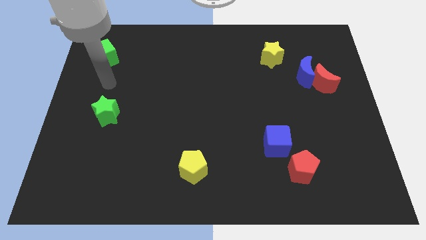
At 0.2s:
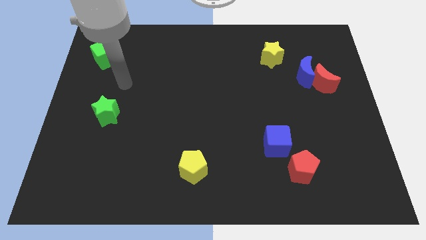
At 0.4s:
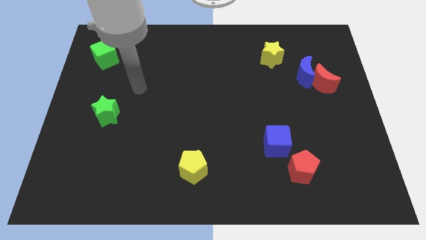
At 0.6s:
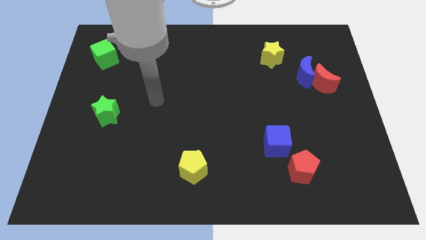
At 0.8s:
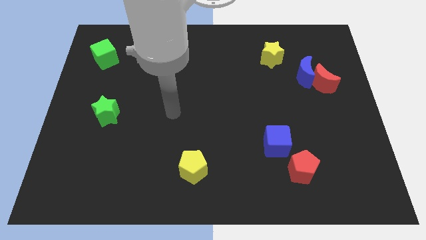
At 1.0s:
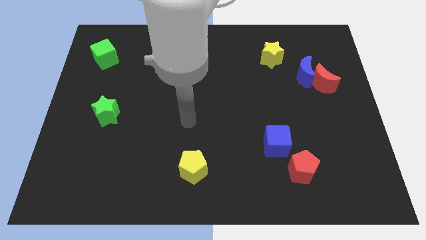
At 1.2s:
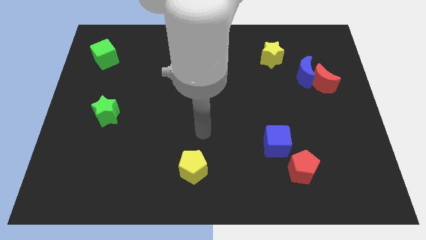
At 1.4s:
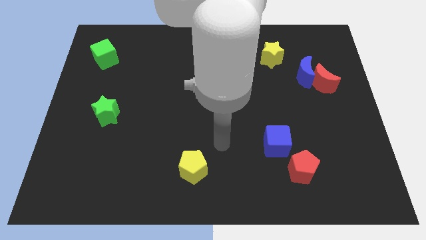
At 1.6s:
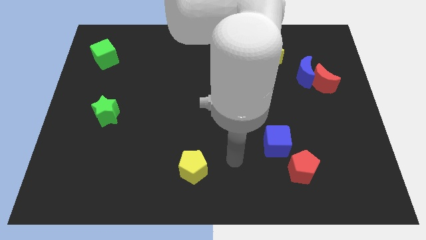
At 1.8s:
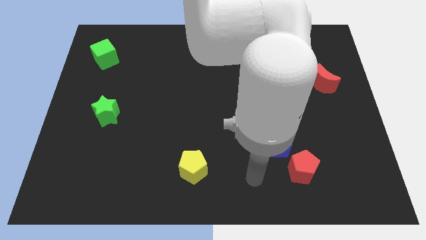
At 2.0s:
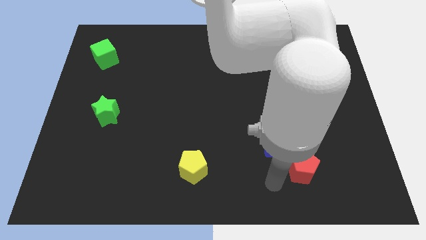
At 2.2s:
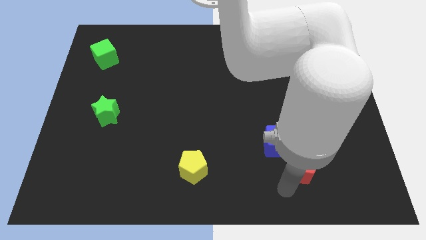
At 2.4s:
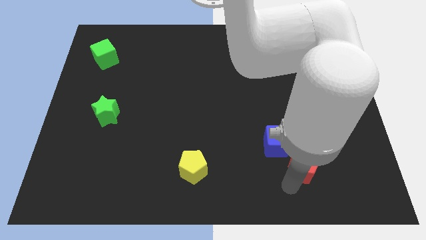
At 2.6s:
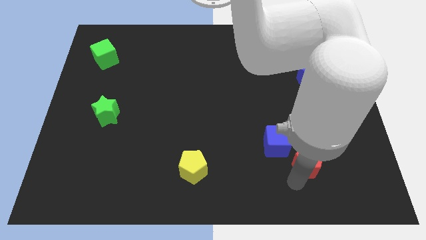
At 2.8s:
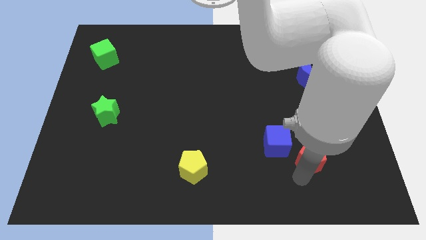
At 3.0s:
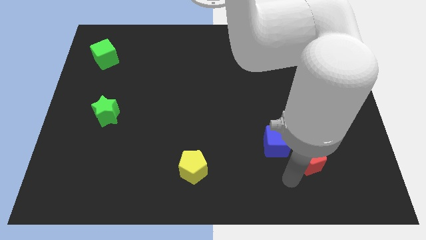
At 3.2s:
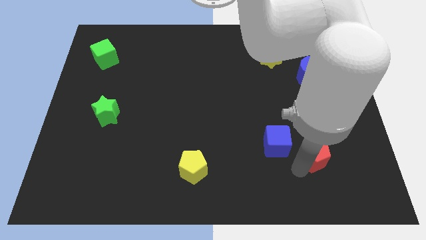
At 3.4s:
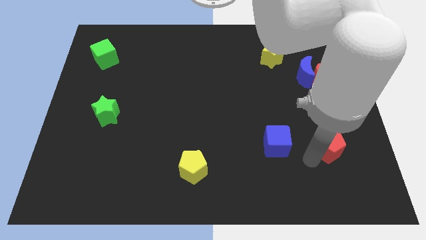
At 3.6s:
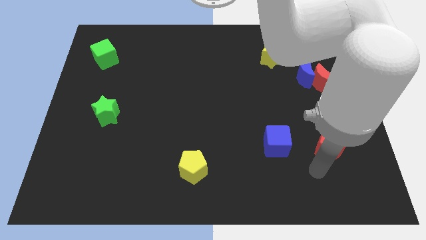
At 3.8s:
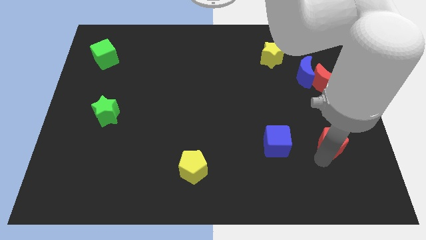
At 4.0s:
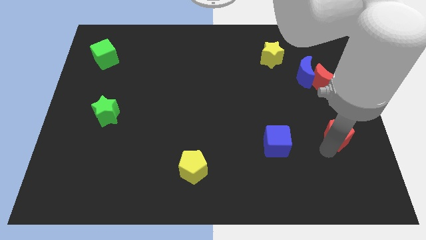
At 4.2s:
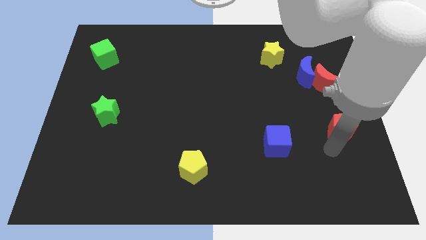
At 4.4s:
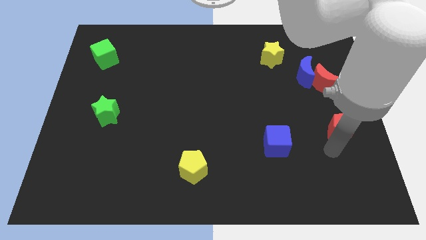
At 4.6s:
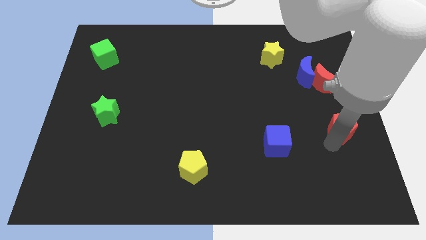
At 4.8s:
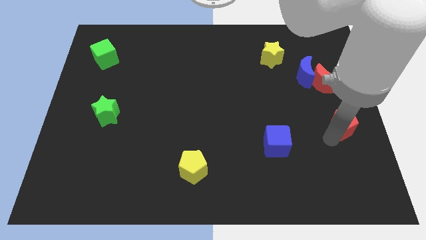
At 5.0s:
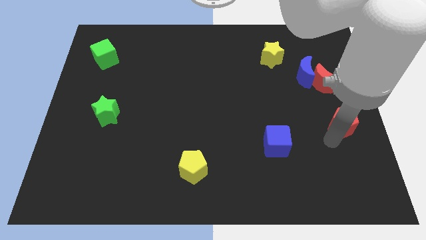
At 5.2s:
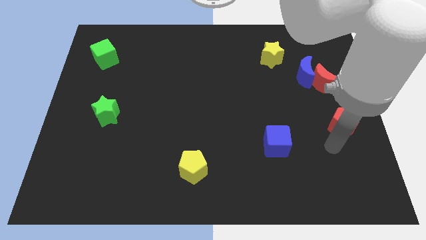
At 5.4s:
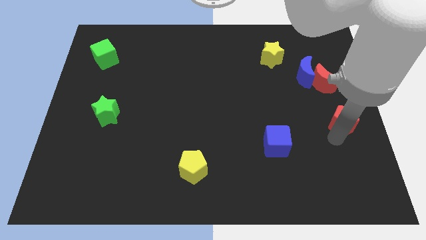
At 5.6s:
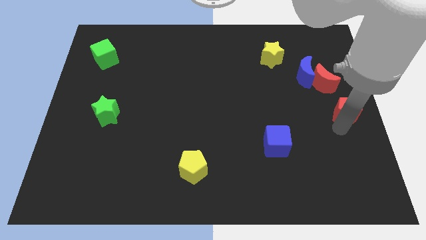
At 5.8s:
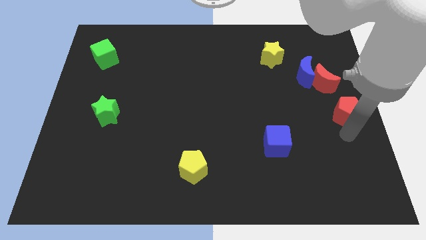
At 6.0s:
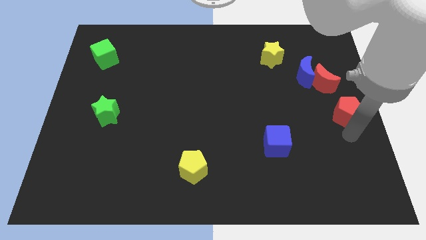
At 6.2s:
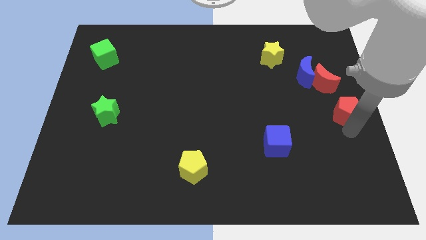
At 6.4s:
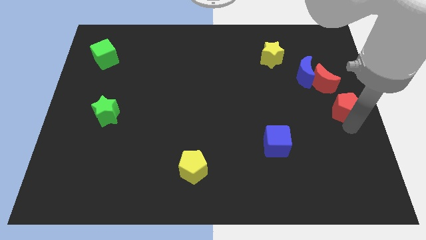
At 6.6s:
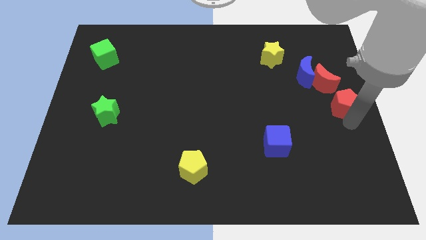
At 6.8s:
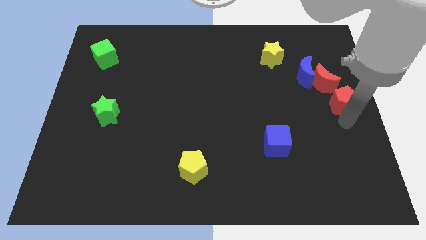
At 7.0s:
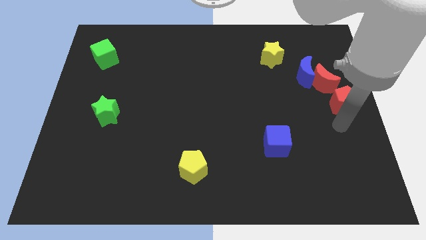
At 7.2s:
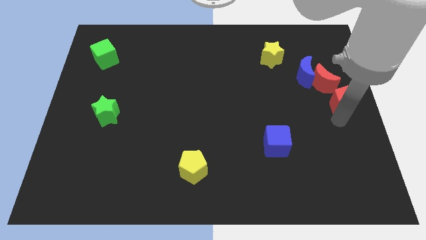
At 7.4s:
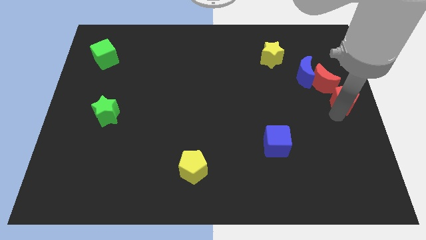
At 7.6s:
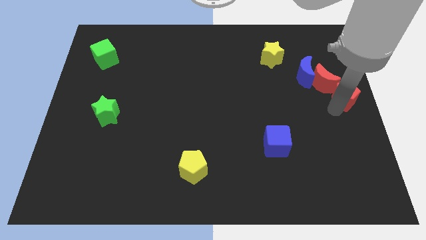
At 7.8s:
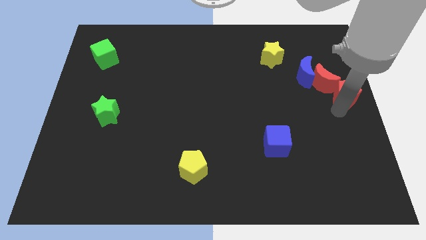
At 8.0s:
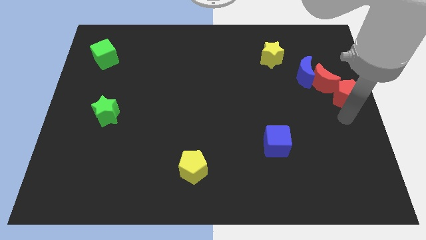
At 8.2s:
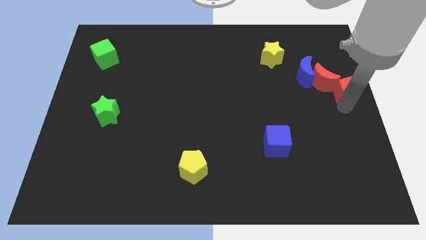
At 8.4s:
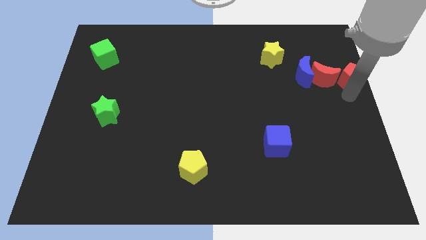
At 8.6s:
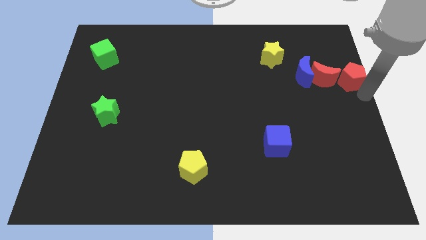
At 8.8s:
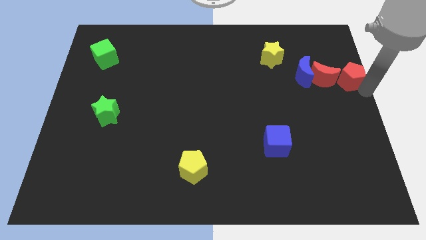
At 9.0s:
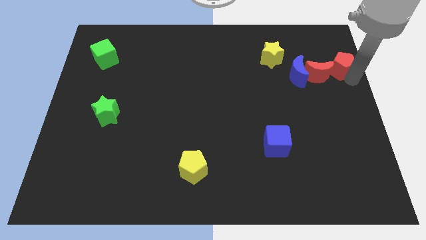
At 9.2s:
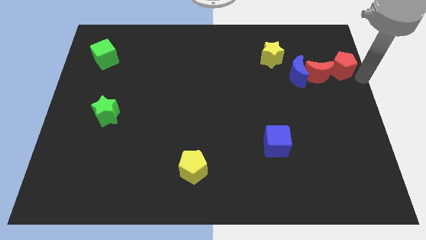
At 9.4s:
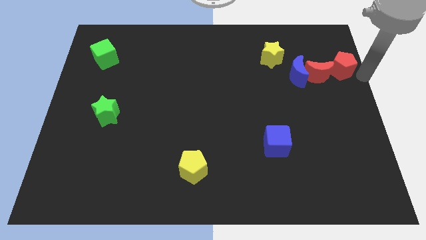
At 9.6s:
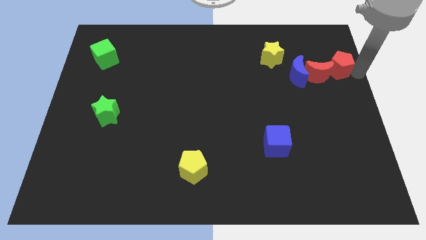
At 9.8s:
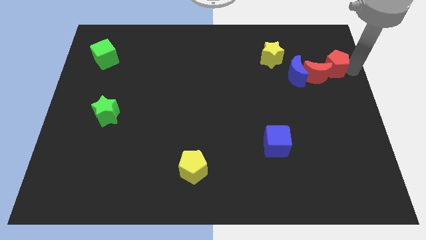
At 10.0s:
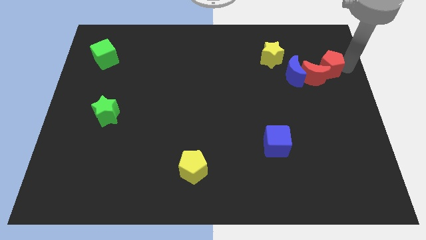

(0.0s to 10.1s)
slide the red pentagon diagonally up and to the right of the blue moon

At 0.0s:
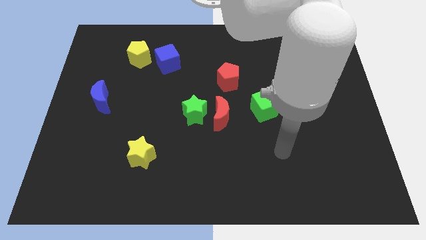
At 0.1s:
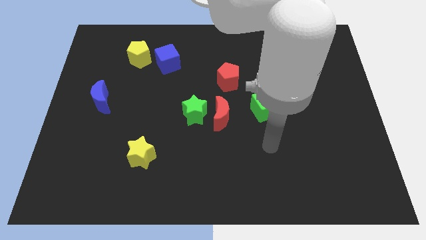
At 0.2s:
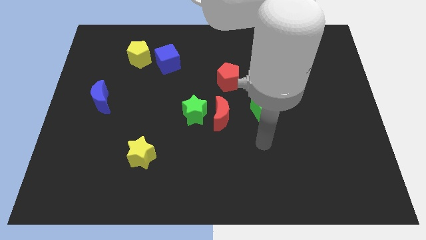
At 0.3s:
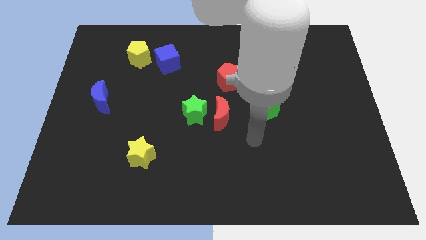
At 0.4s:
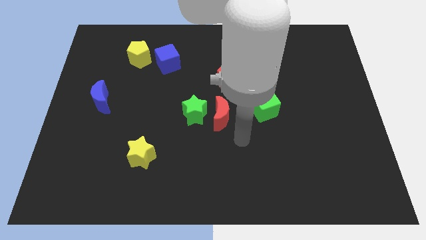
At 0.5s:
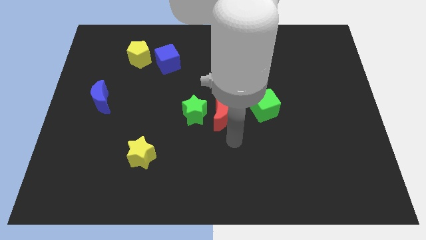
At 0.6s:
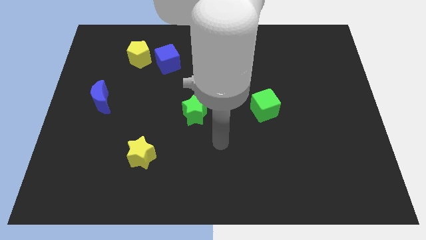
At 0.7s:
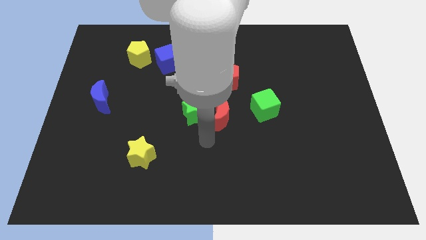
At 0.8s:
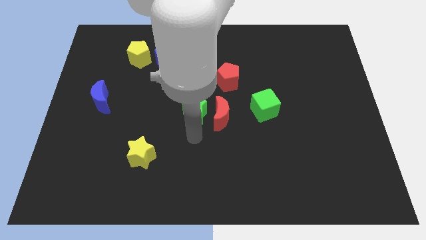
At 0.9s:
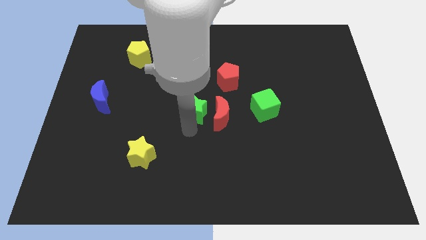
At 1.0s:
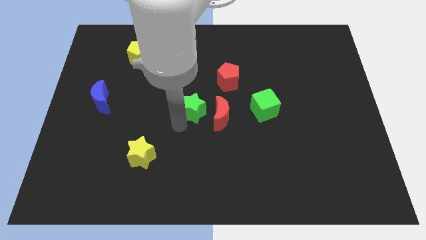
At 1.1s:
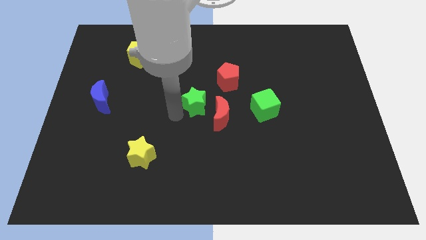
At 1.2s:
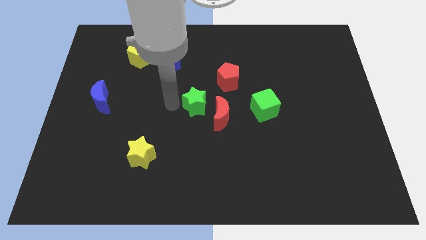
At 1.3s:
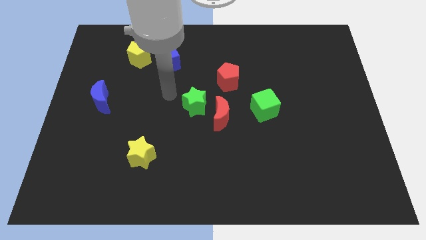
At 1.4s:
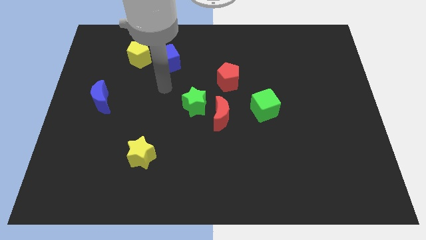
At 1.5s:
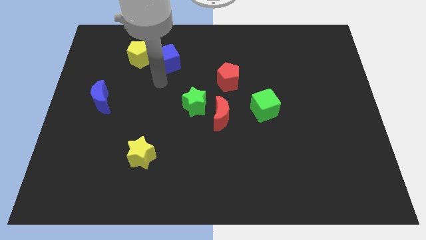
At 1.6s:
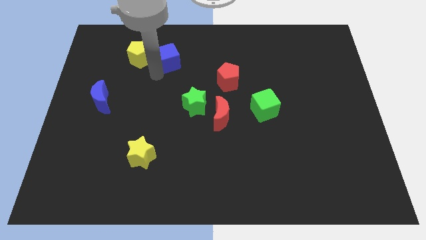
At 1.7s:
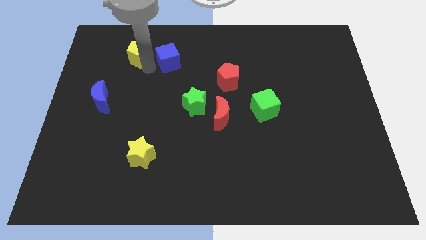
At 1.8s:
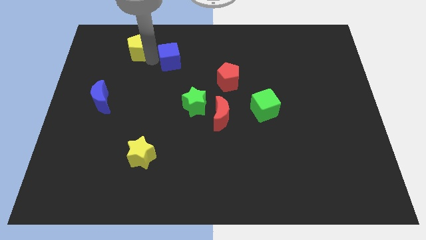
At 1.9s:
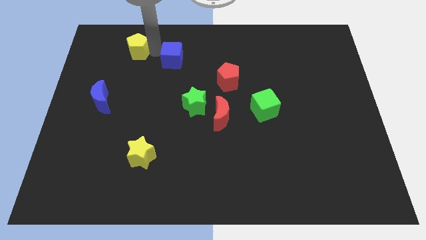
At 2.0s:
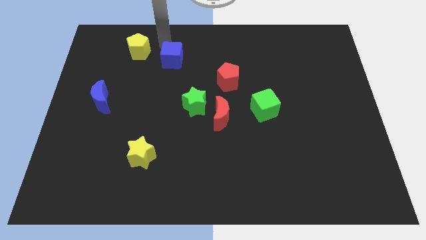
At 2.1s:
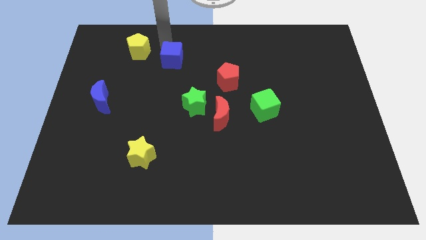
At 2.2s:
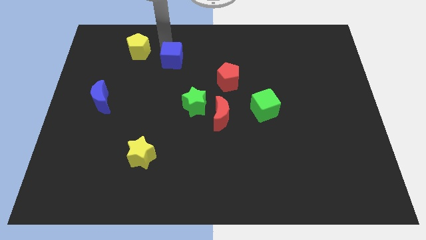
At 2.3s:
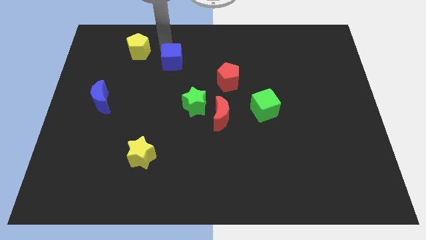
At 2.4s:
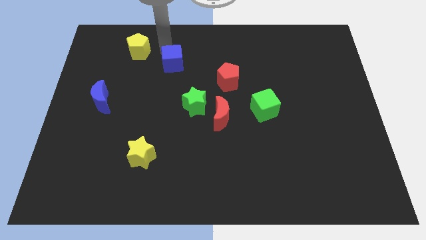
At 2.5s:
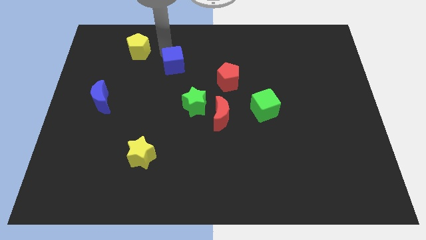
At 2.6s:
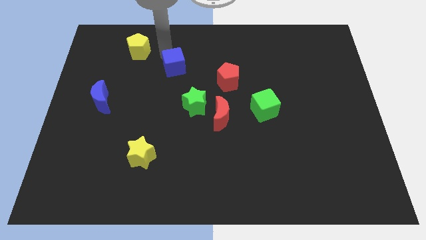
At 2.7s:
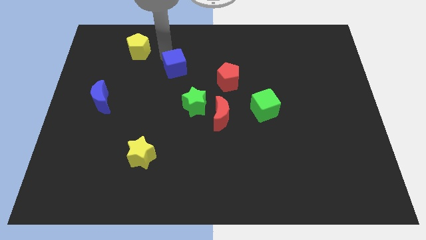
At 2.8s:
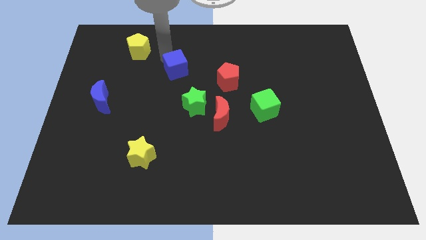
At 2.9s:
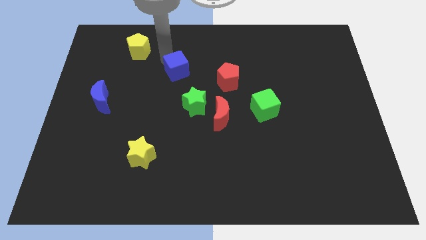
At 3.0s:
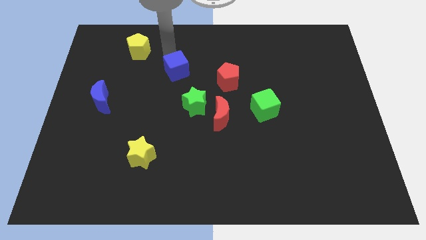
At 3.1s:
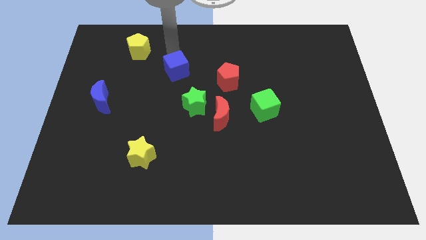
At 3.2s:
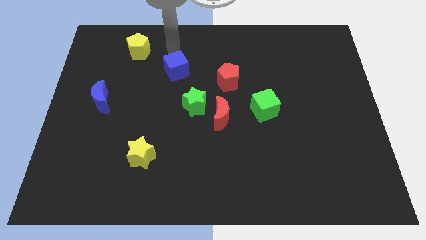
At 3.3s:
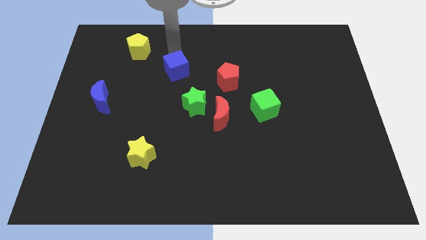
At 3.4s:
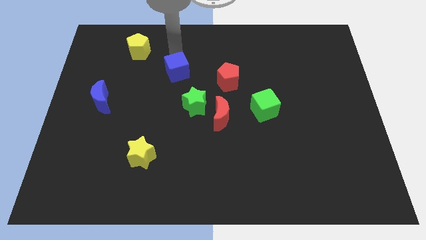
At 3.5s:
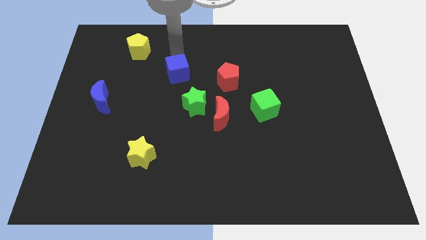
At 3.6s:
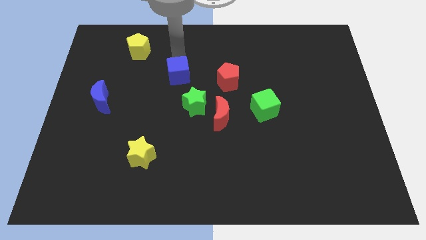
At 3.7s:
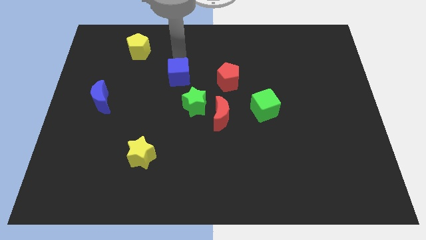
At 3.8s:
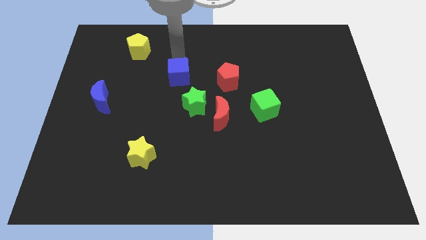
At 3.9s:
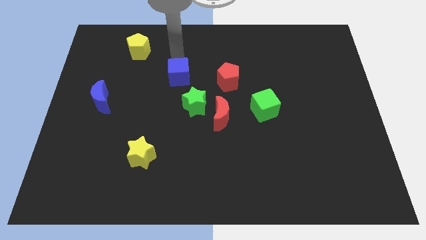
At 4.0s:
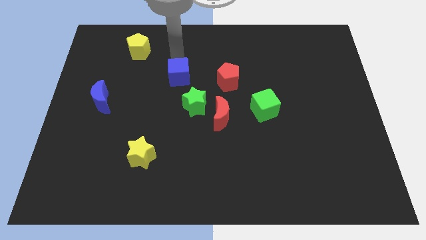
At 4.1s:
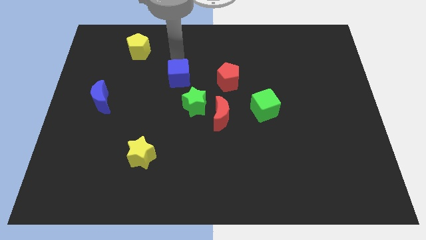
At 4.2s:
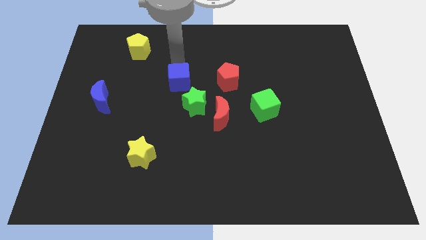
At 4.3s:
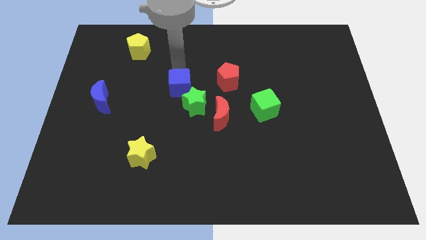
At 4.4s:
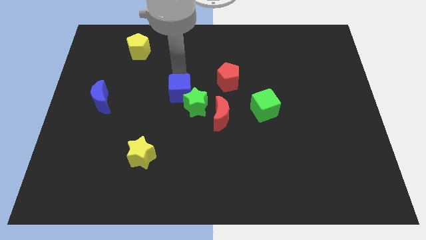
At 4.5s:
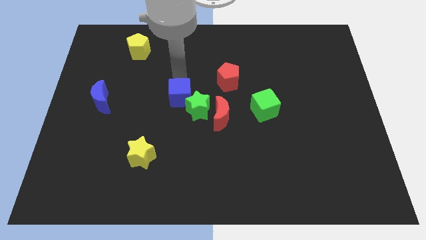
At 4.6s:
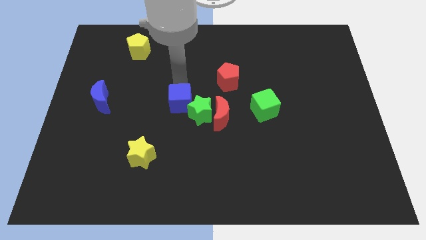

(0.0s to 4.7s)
put the blue cube left of the red moon
